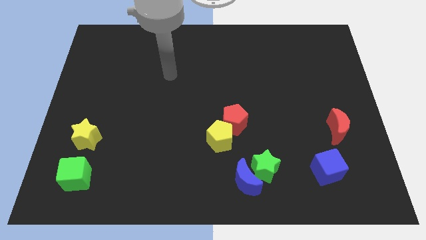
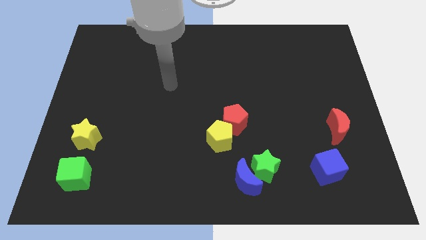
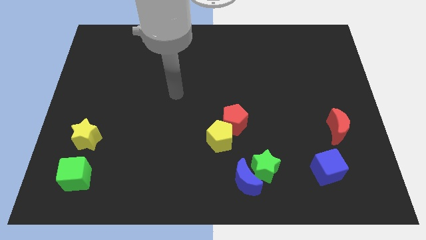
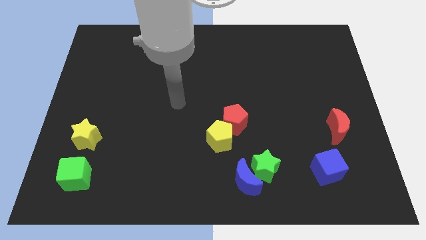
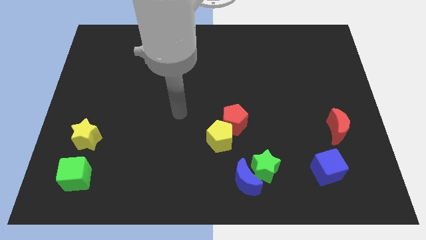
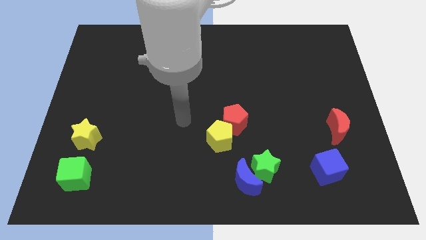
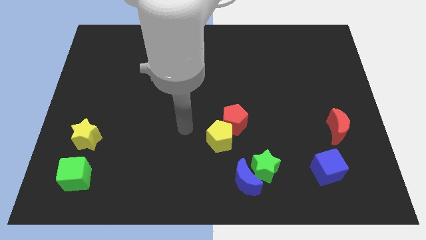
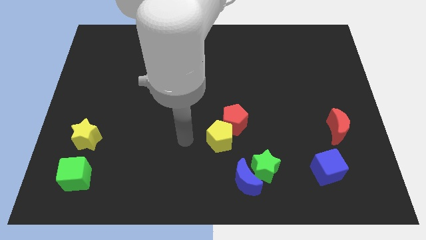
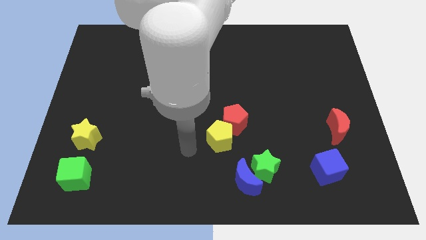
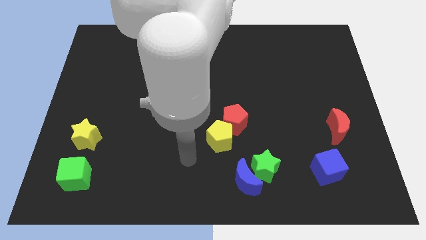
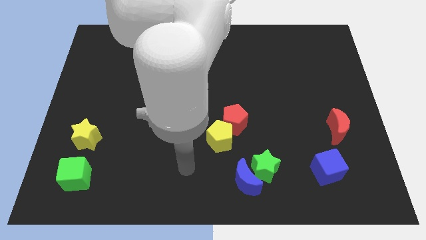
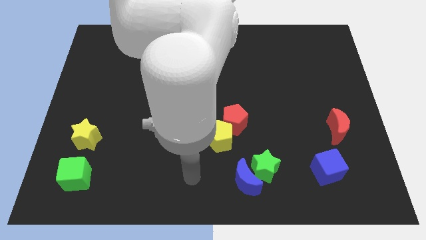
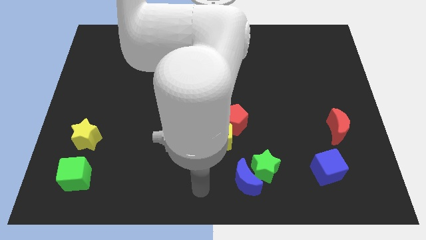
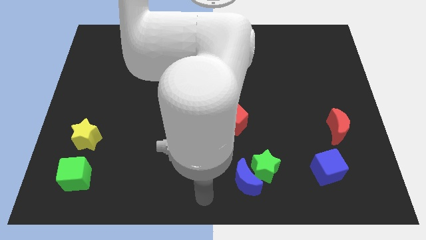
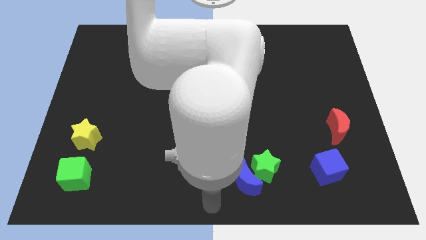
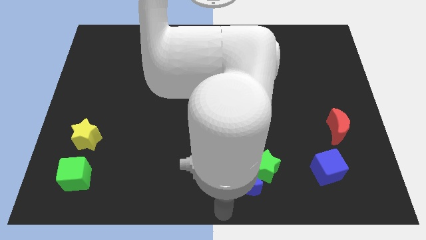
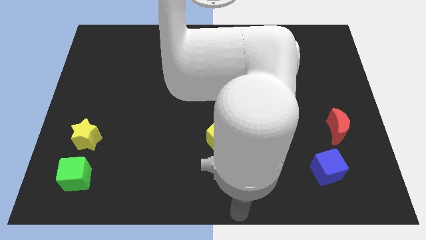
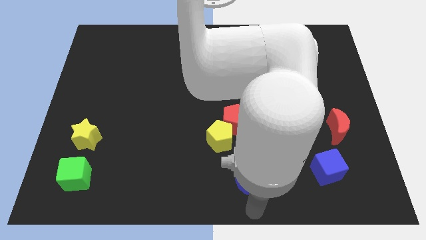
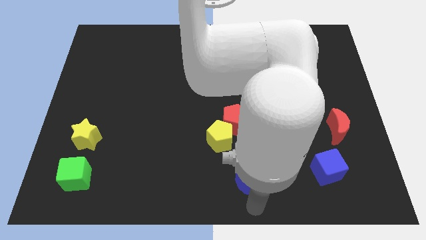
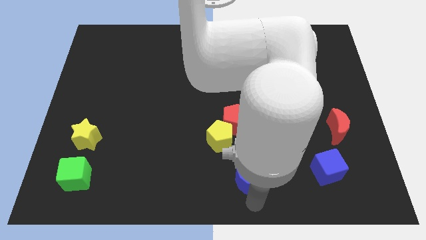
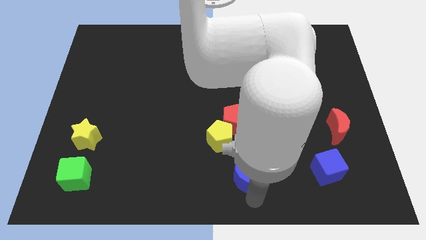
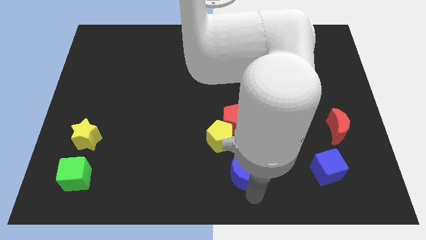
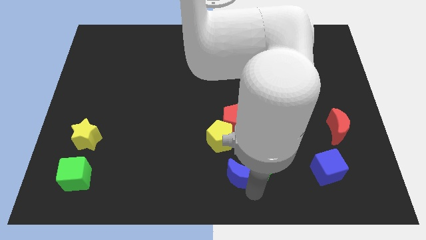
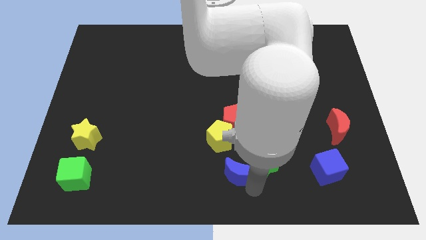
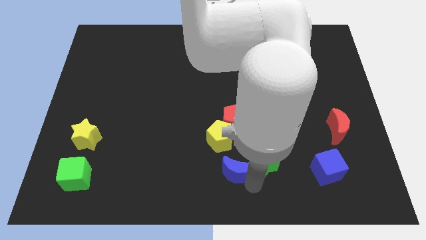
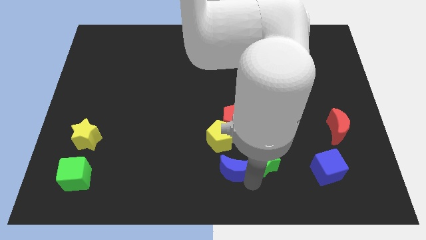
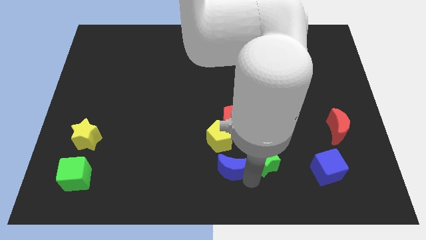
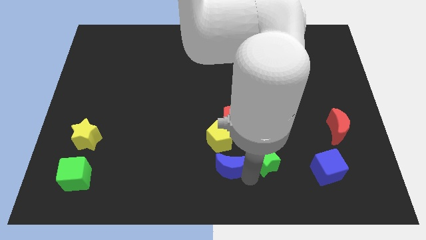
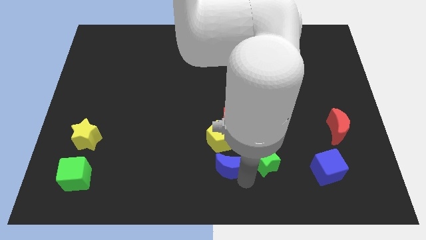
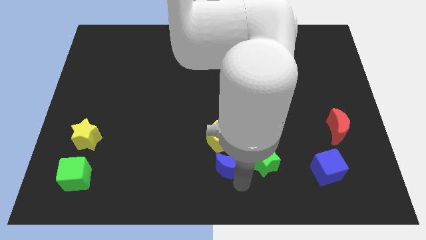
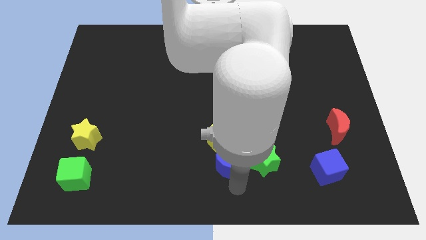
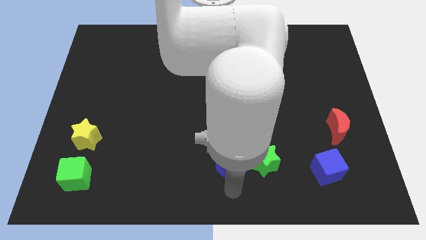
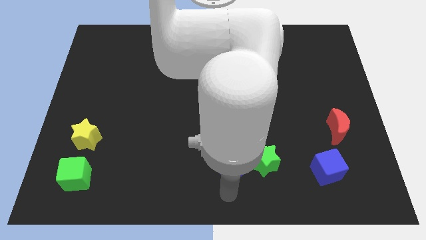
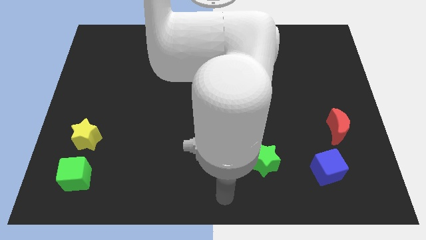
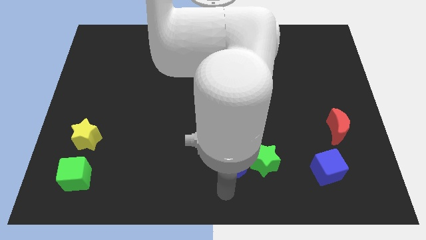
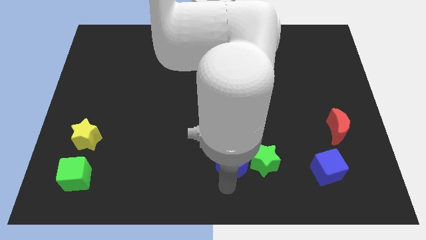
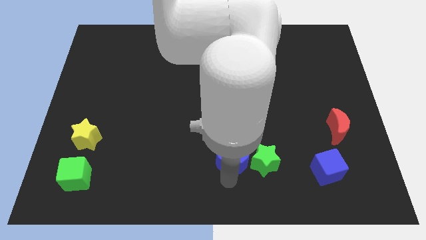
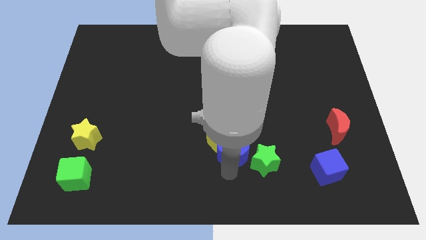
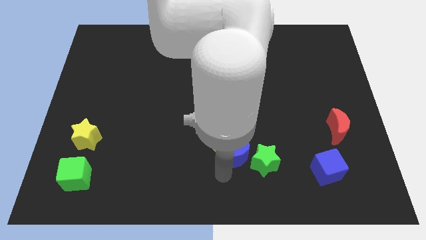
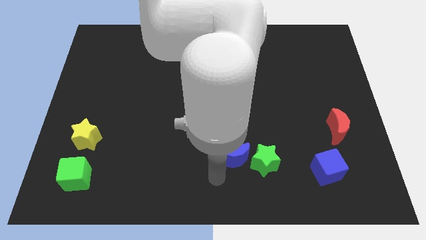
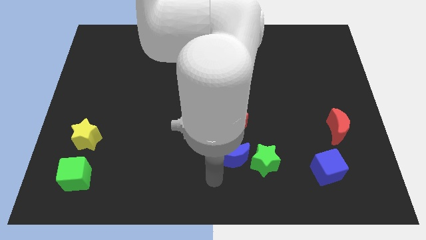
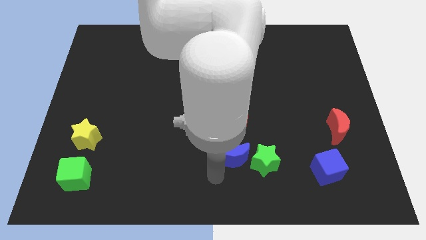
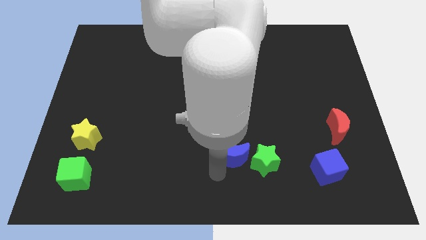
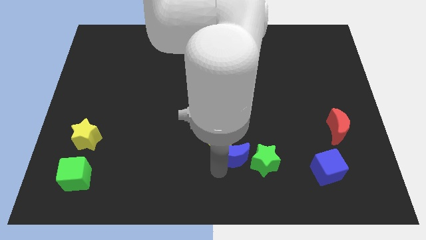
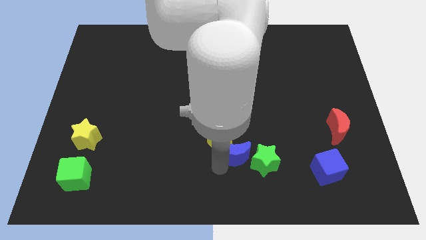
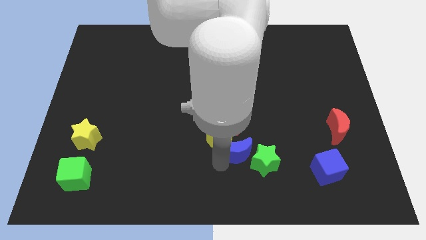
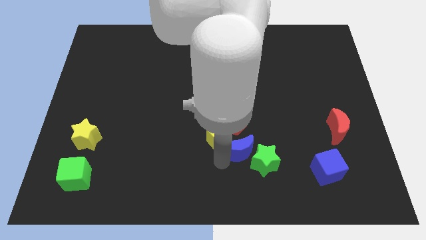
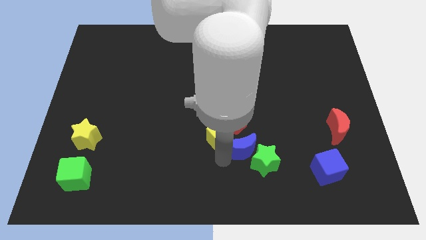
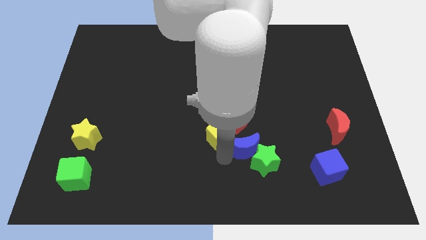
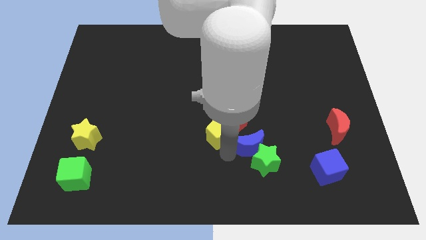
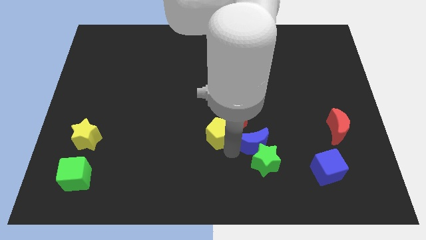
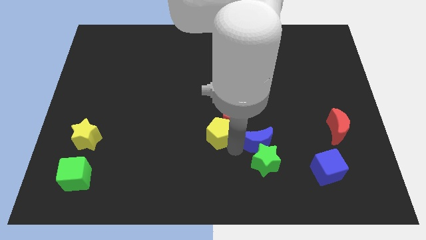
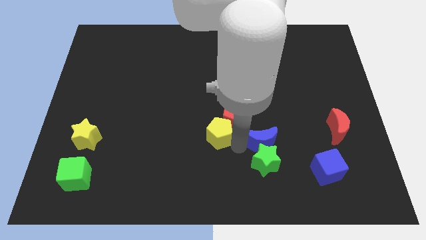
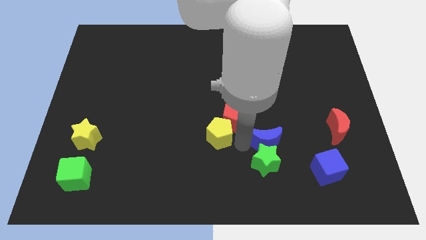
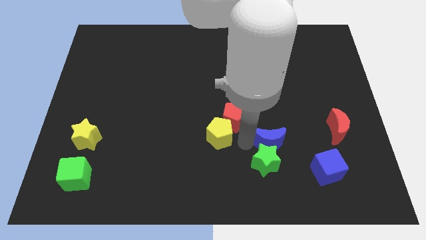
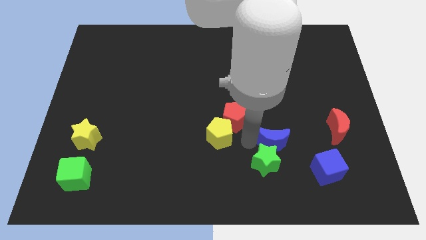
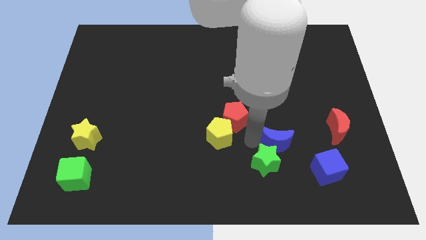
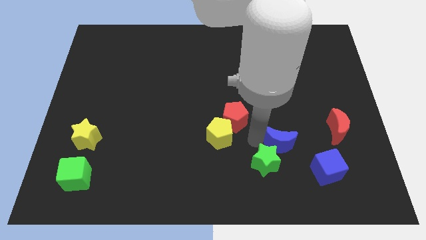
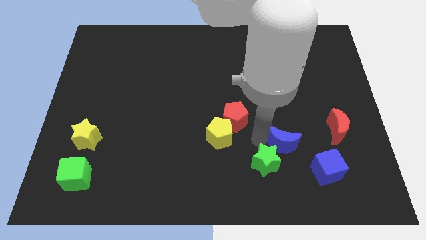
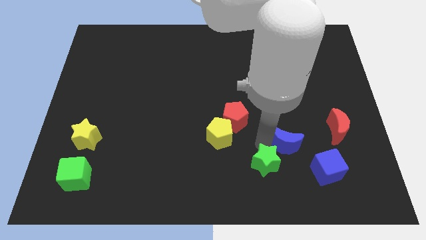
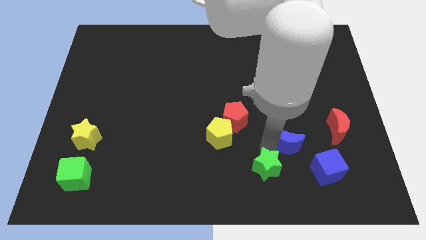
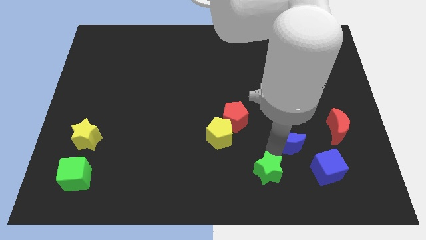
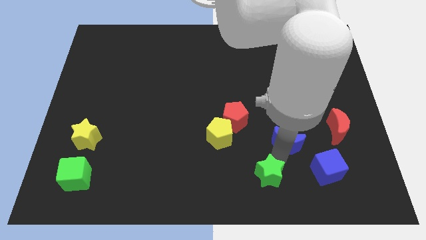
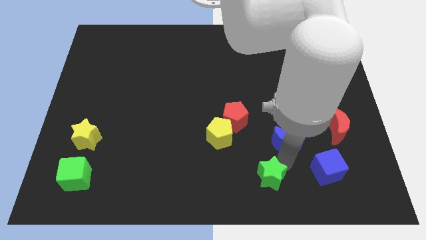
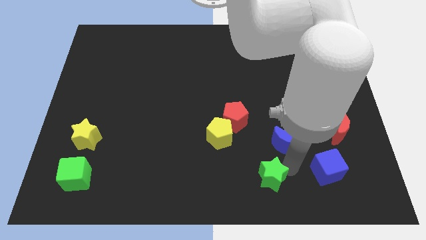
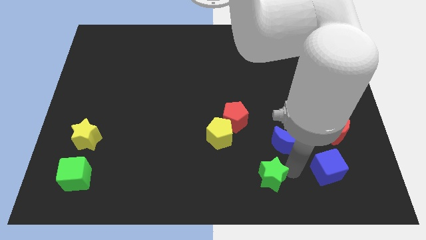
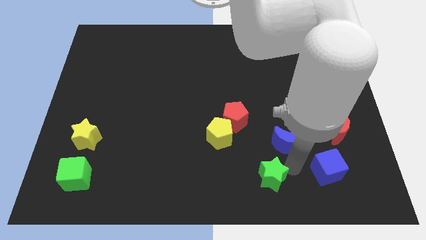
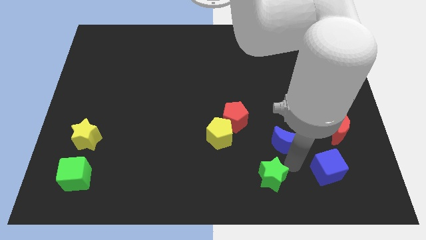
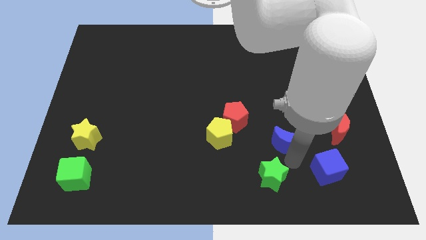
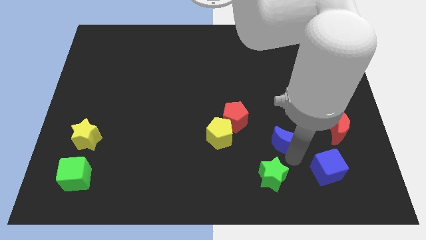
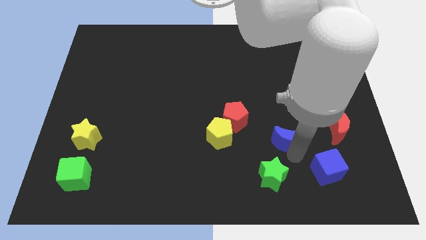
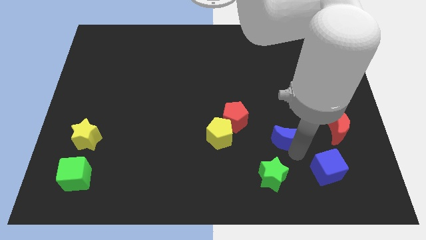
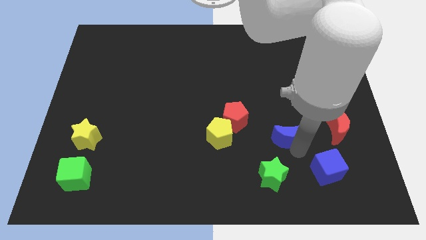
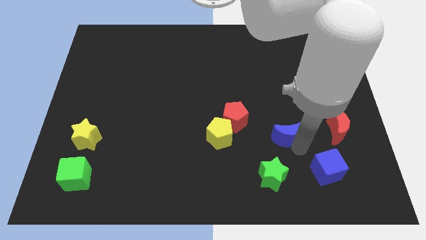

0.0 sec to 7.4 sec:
move the blue moon to the right side of the red pentagon

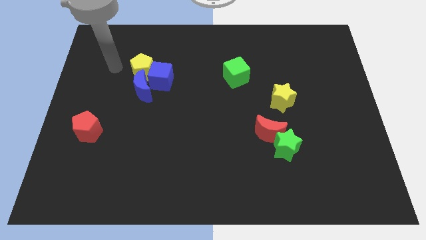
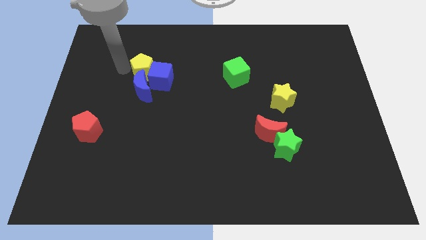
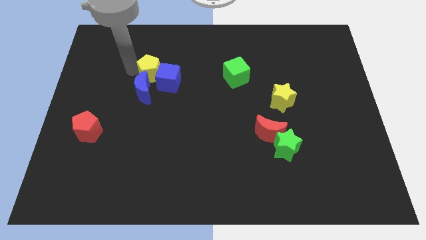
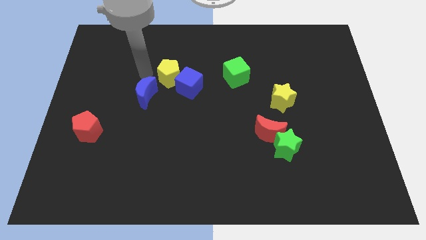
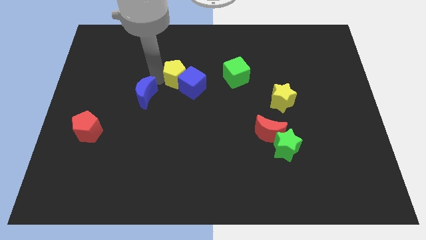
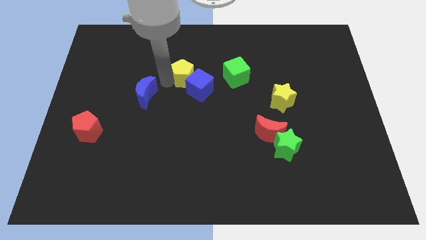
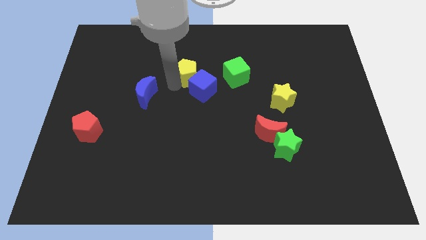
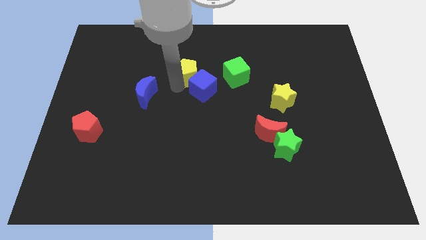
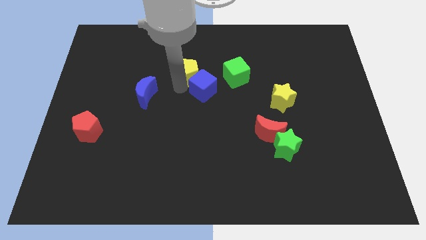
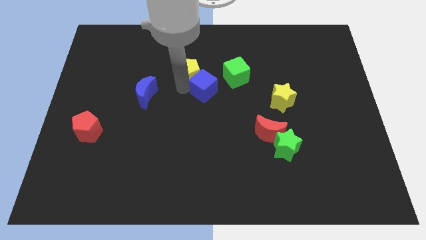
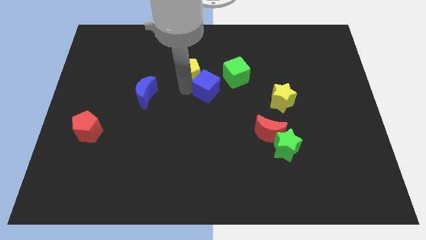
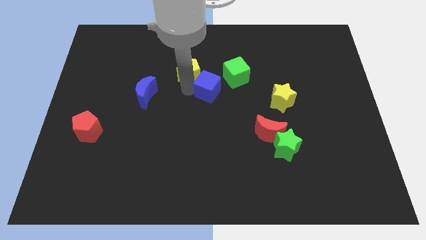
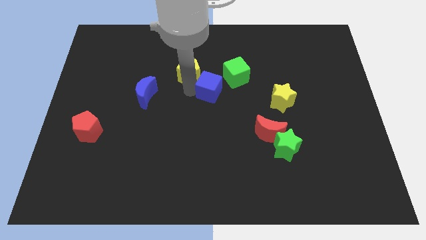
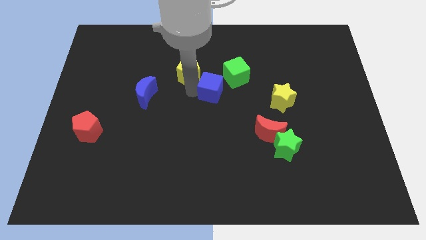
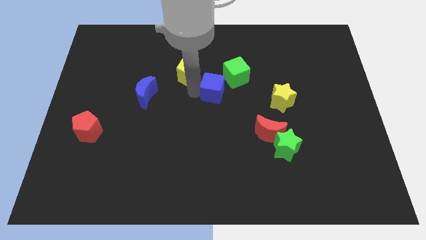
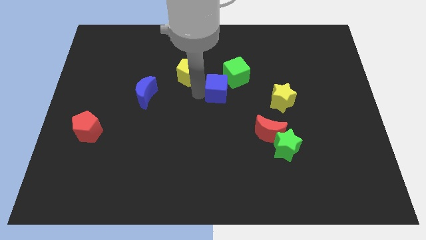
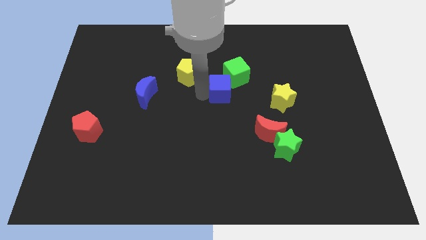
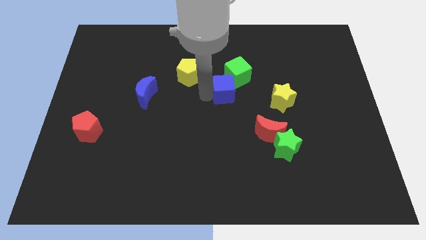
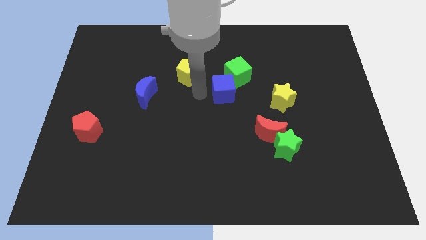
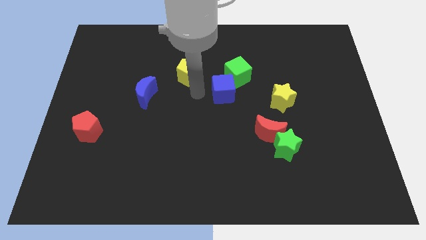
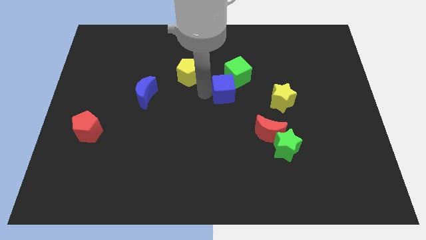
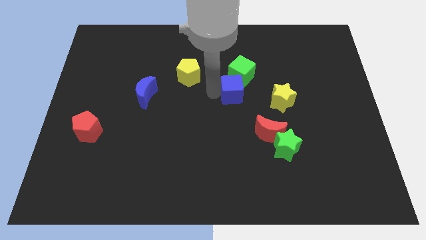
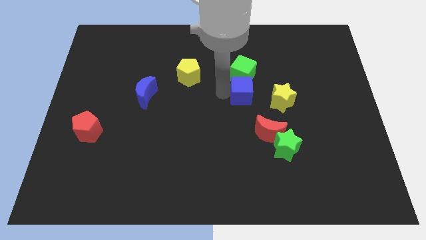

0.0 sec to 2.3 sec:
push the blue cube to the bottom right side of the green cube
